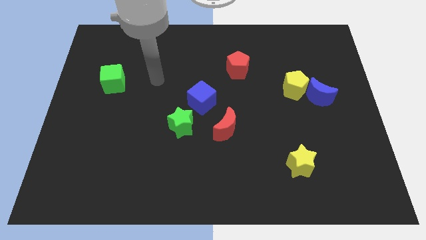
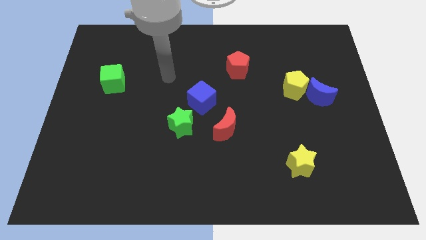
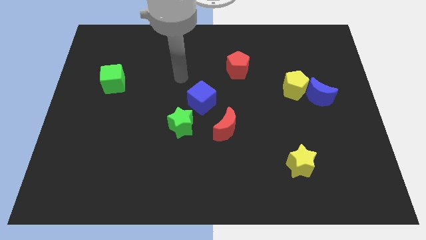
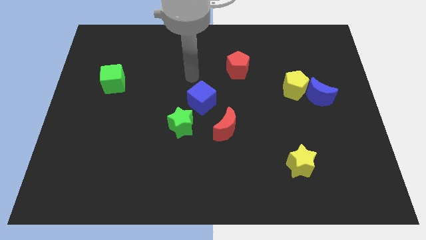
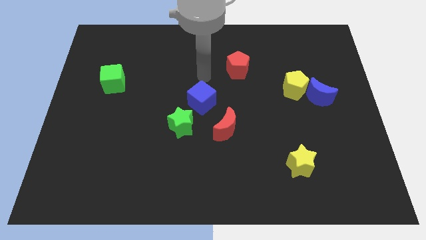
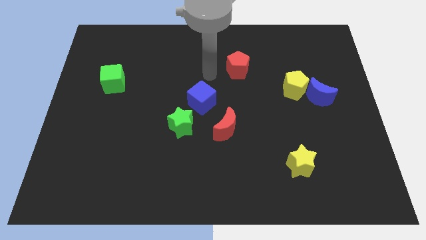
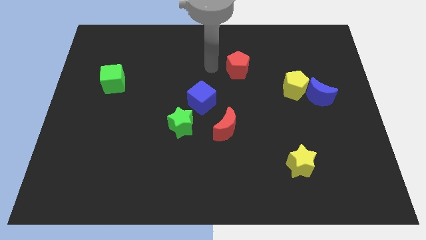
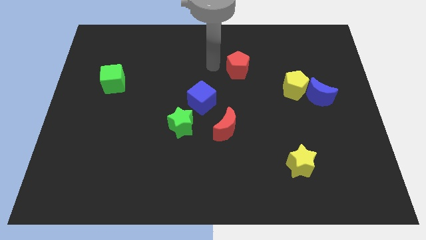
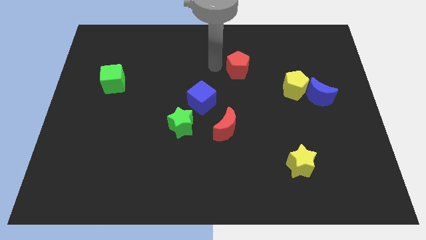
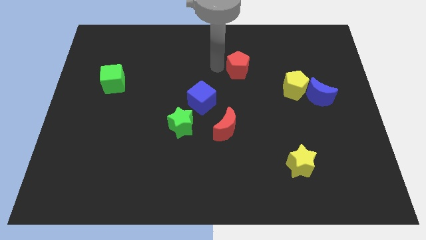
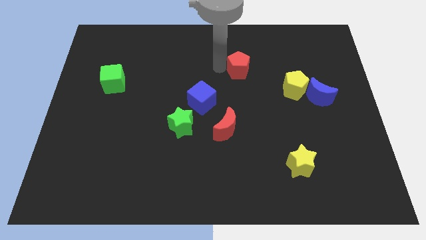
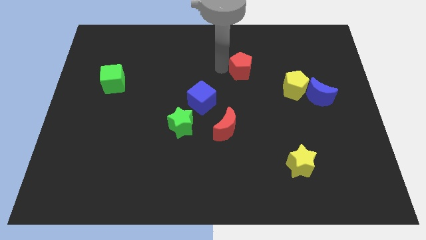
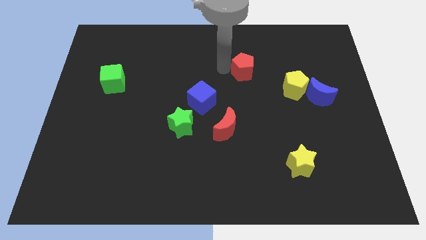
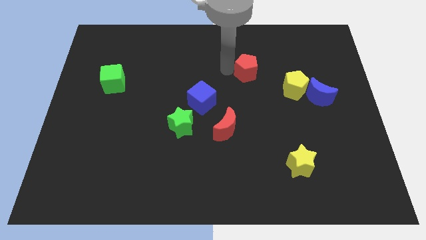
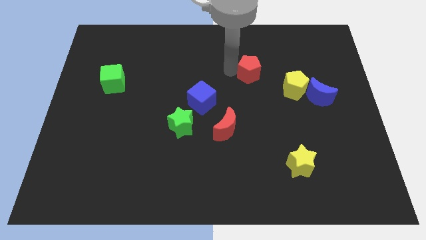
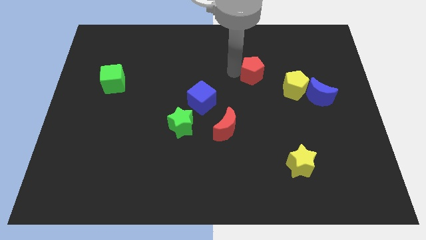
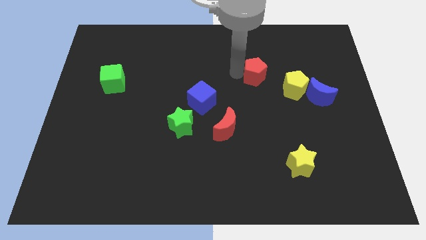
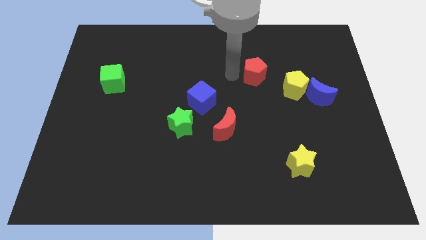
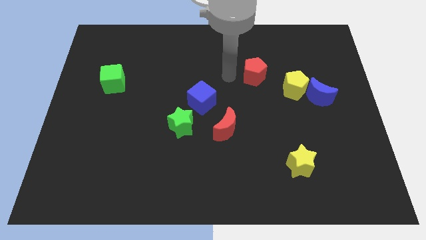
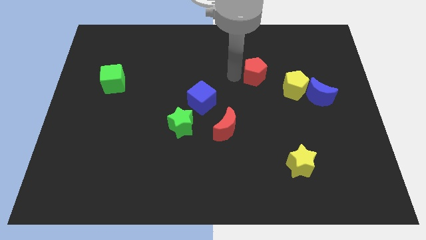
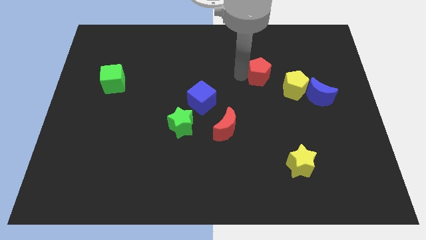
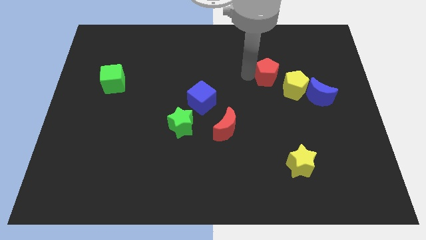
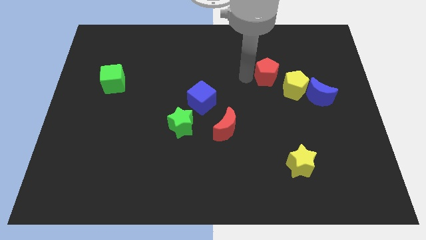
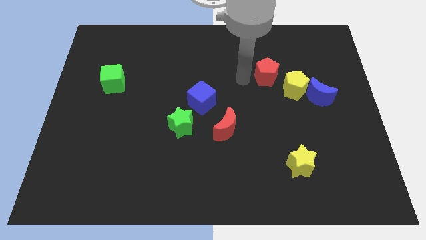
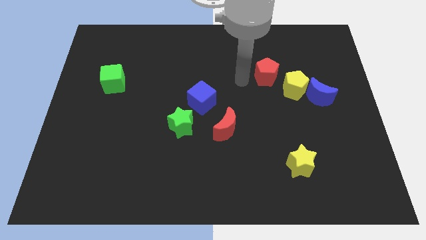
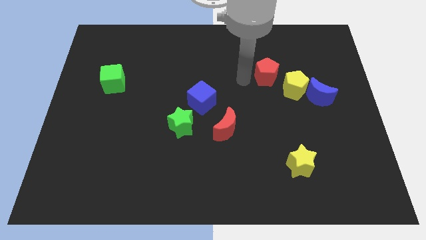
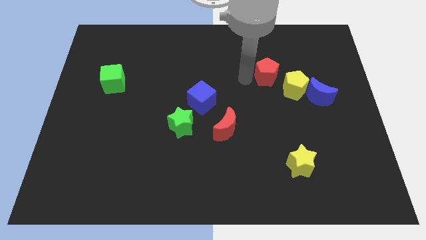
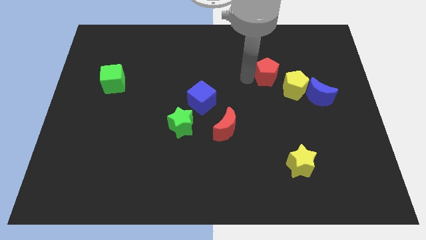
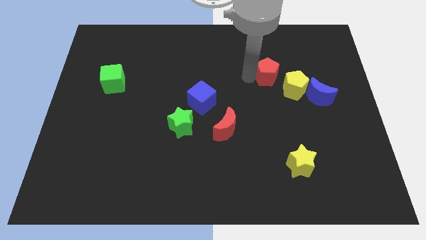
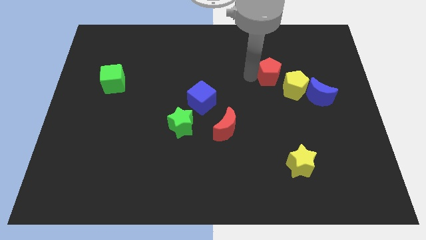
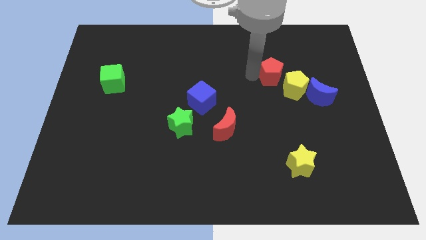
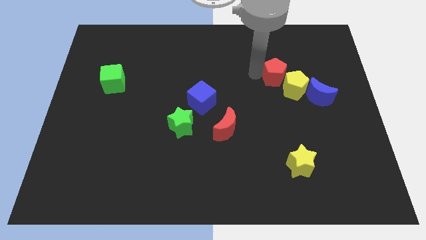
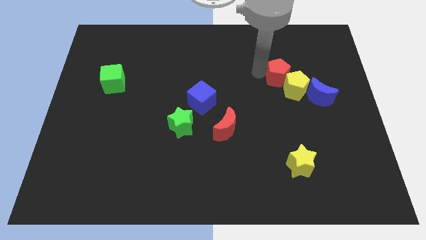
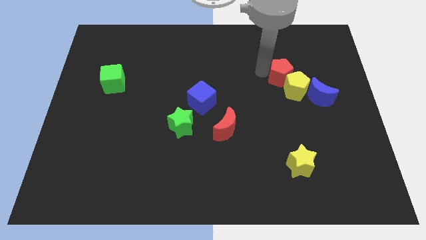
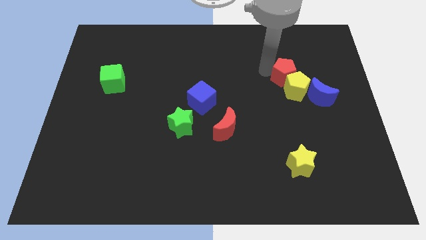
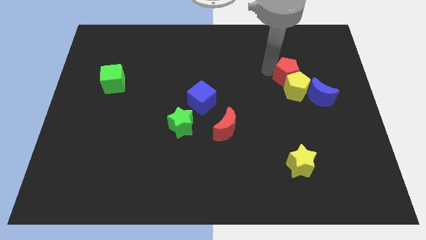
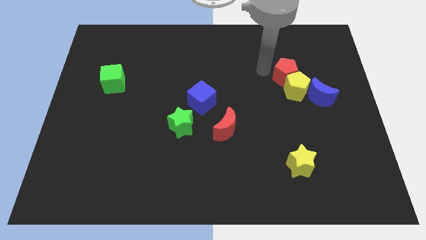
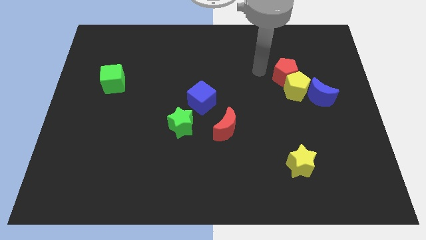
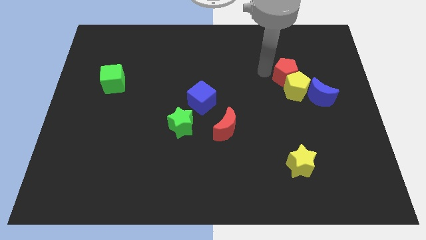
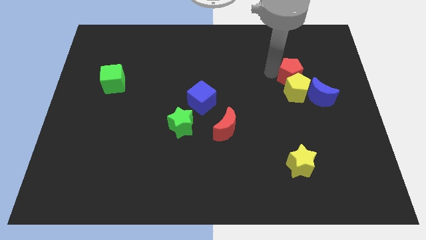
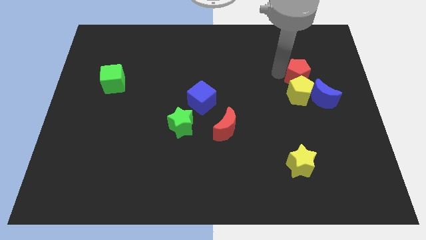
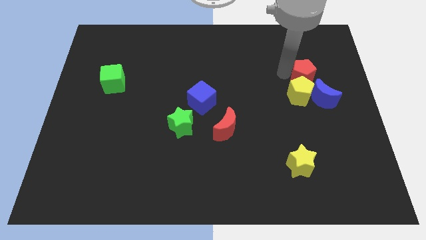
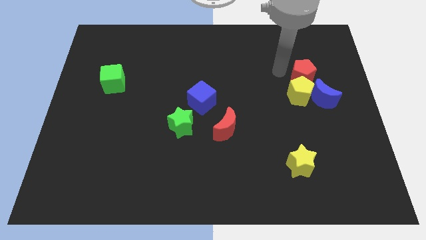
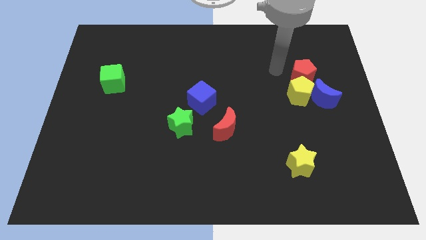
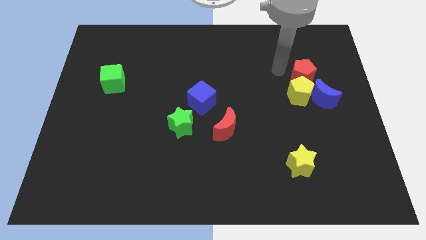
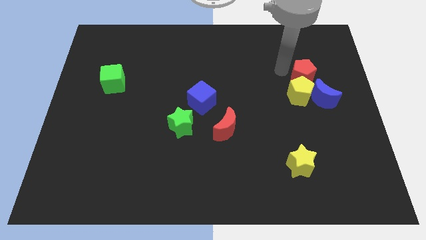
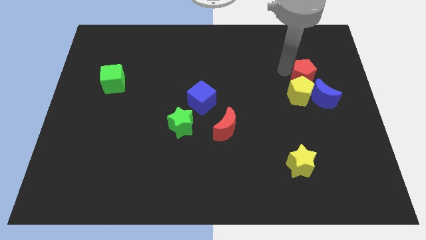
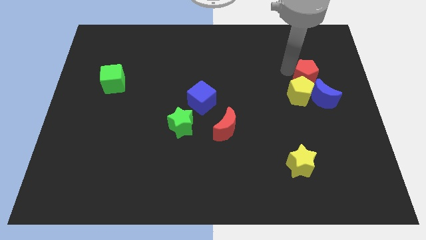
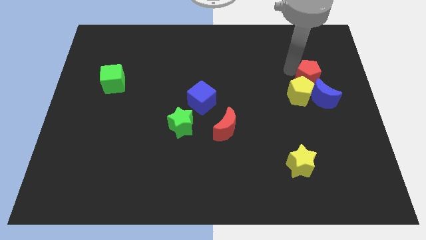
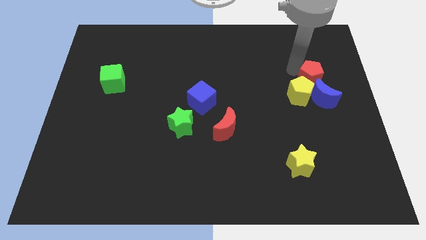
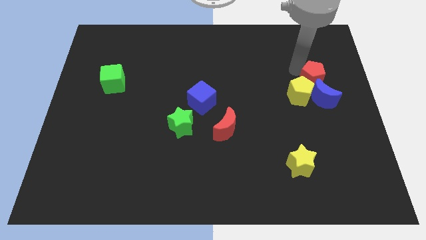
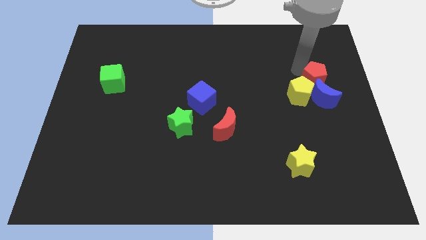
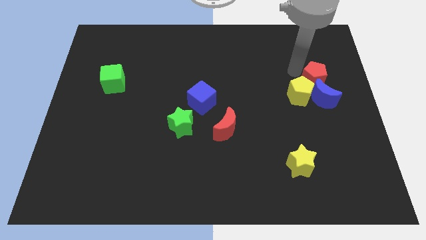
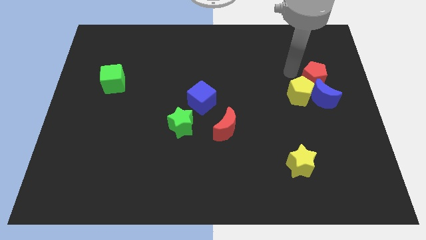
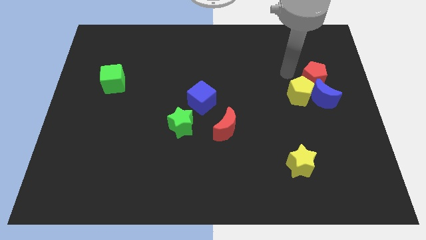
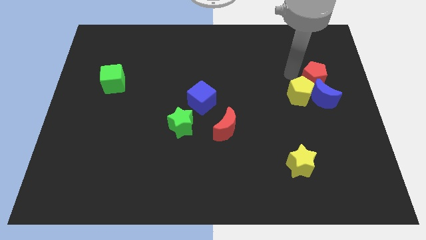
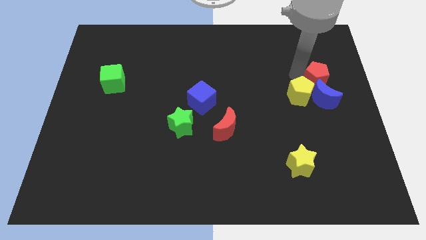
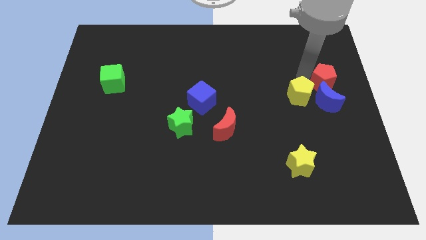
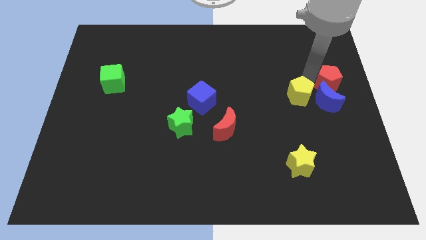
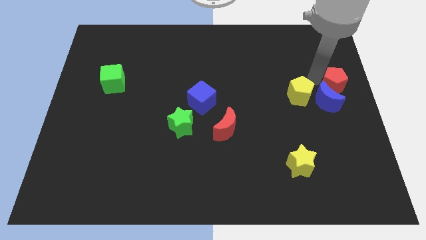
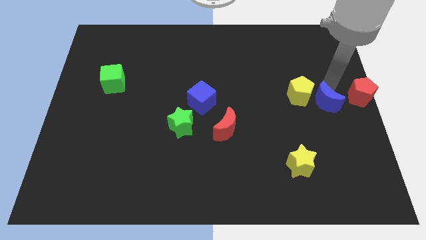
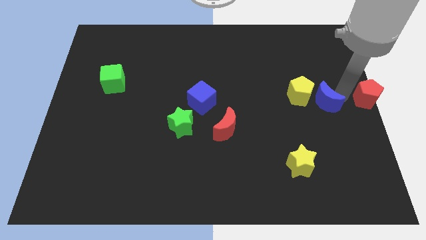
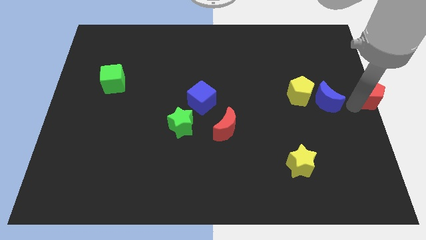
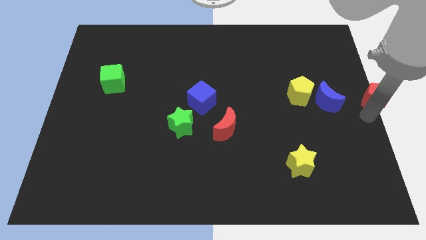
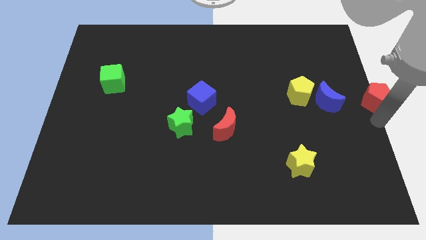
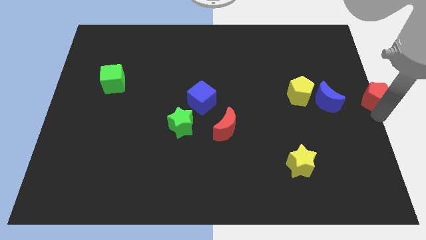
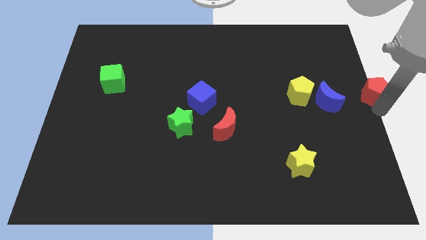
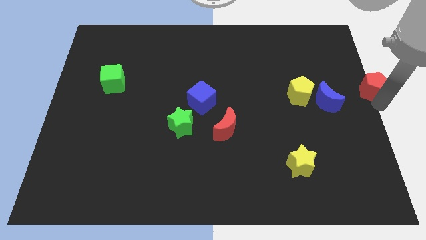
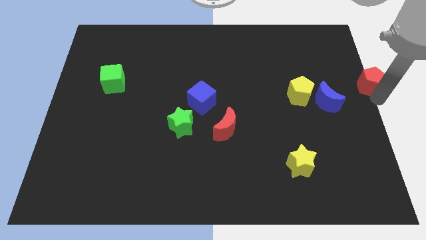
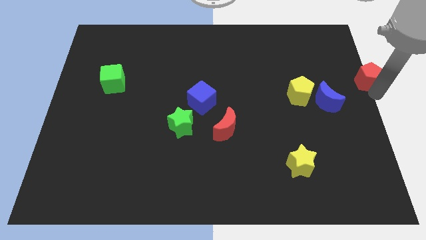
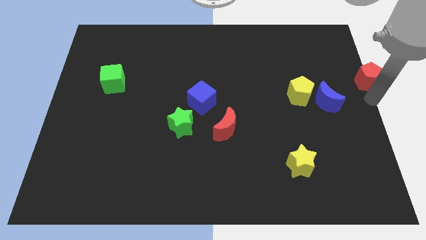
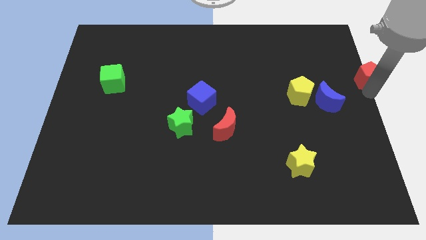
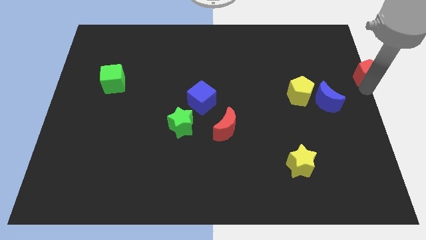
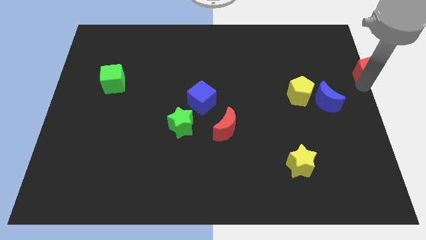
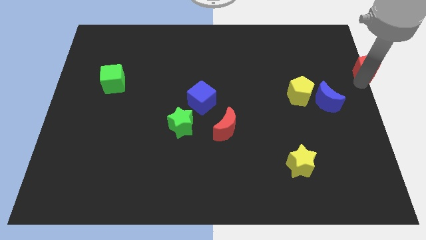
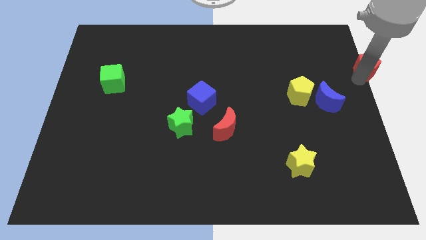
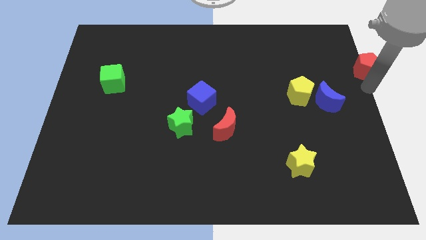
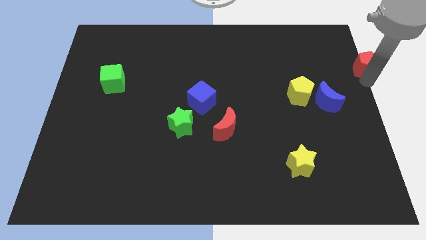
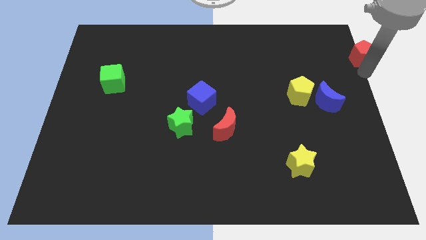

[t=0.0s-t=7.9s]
slide the red pentagon to the top right corner
